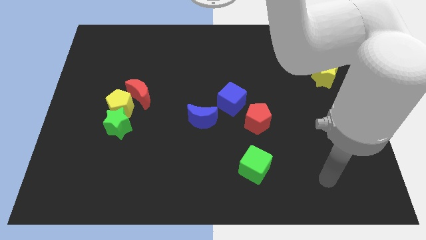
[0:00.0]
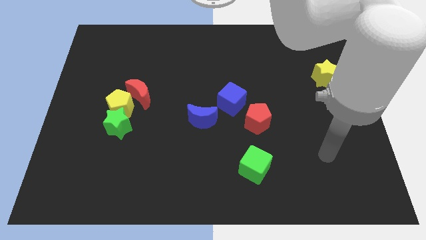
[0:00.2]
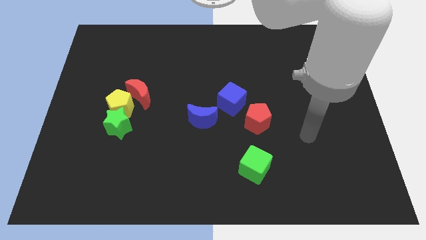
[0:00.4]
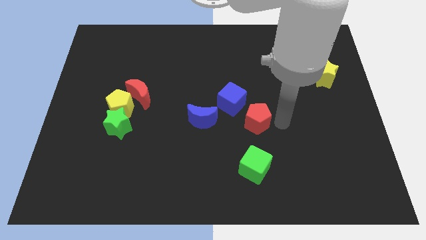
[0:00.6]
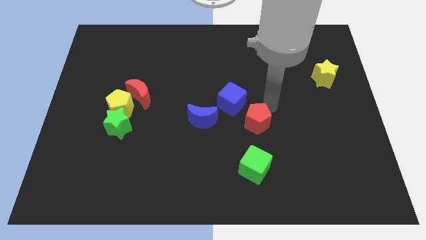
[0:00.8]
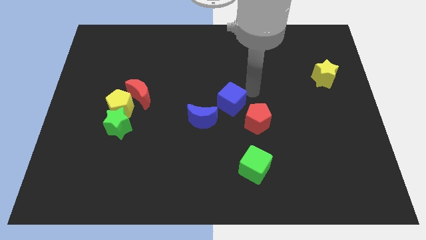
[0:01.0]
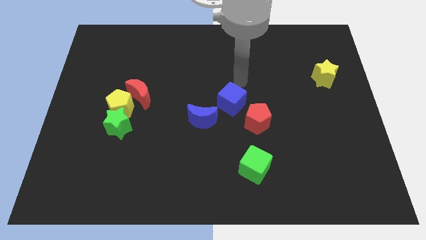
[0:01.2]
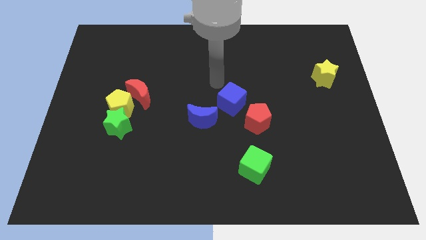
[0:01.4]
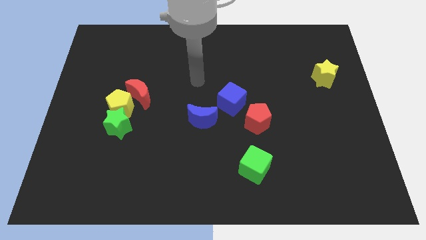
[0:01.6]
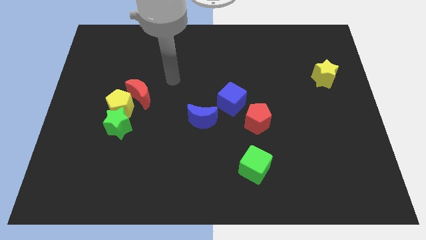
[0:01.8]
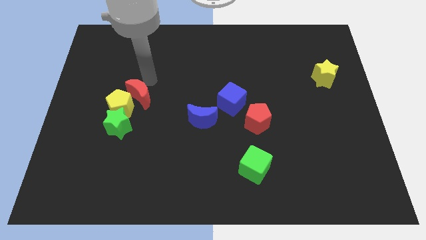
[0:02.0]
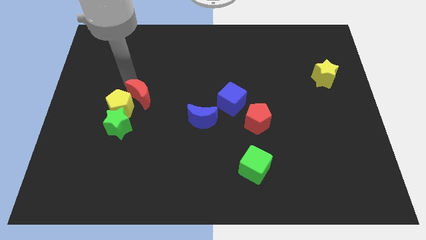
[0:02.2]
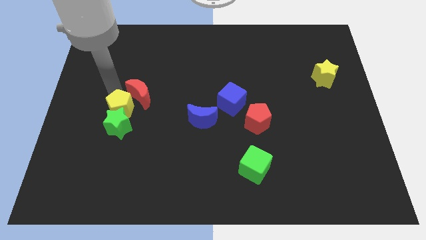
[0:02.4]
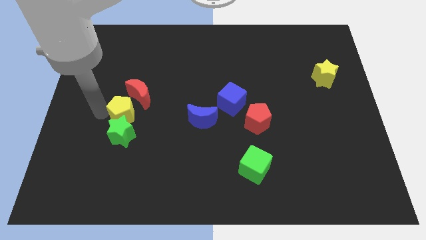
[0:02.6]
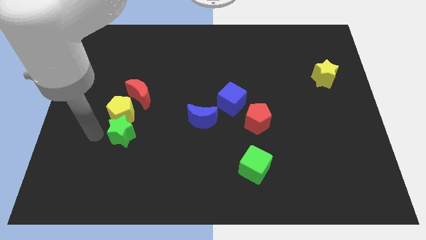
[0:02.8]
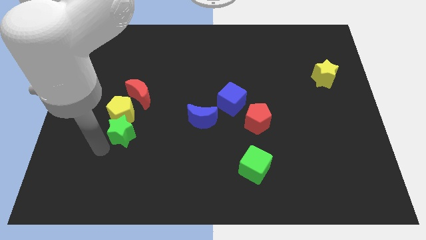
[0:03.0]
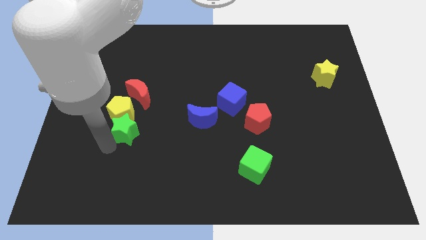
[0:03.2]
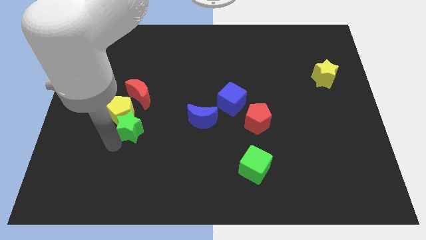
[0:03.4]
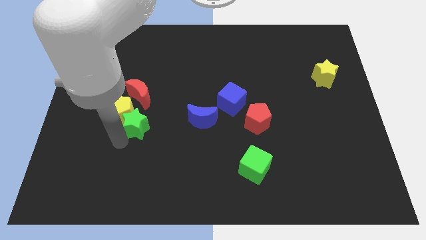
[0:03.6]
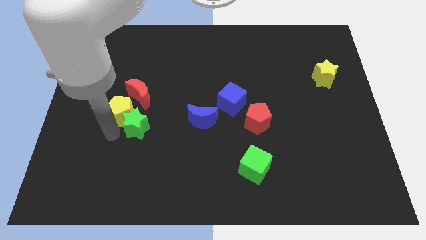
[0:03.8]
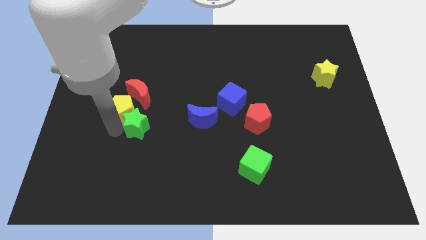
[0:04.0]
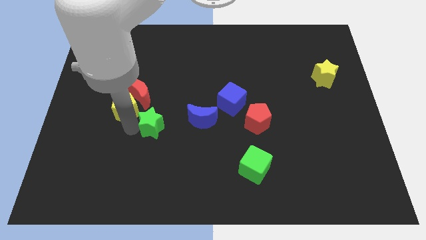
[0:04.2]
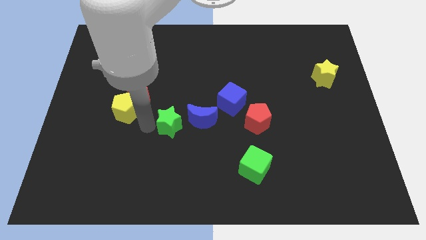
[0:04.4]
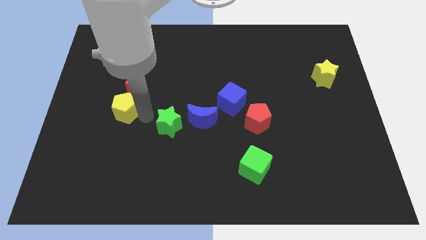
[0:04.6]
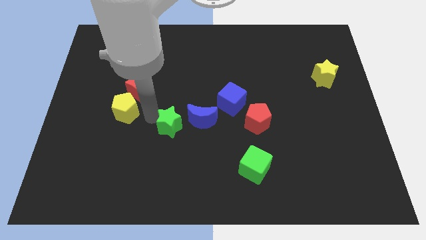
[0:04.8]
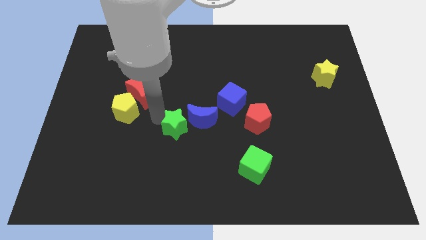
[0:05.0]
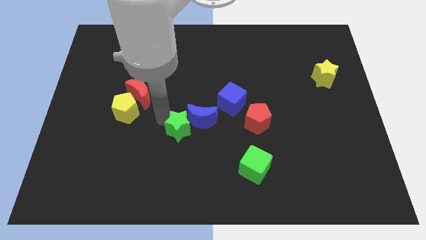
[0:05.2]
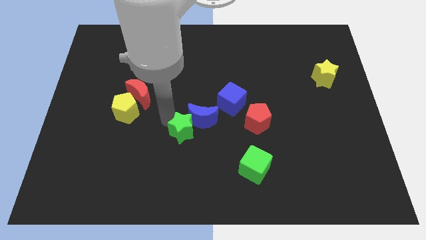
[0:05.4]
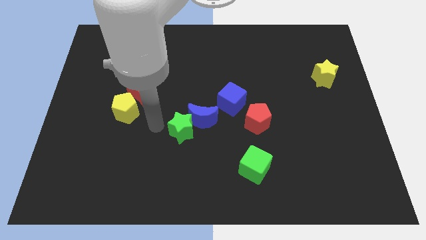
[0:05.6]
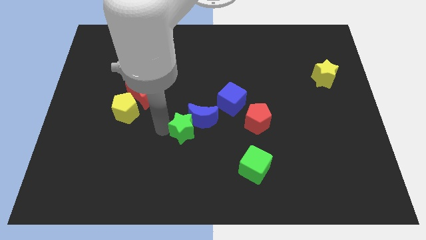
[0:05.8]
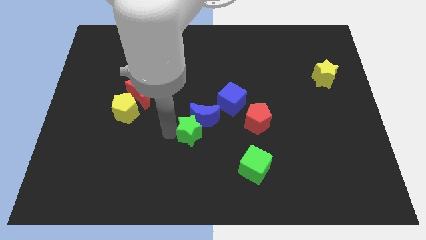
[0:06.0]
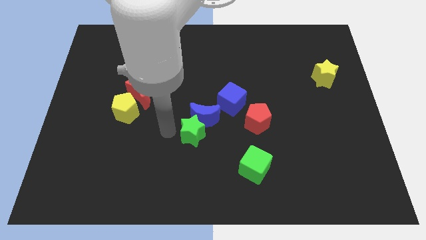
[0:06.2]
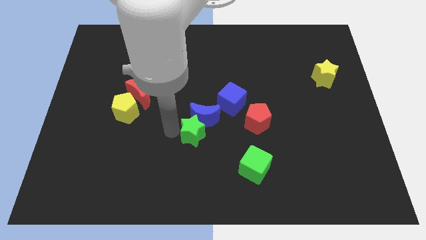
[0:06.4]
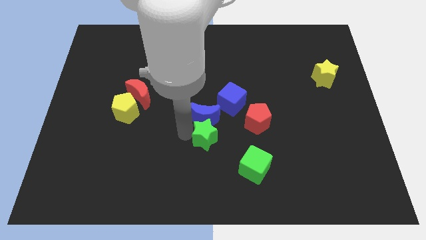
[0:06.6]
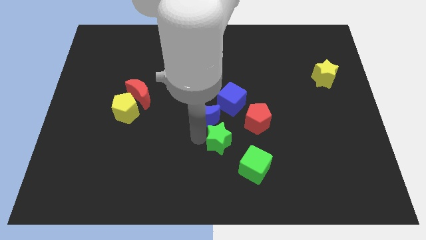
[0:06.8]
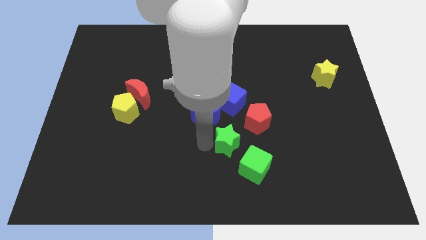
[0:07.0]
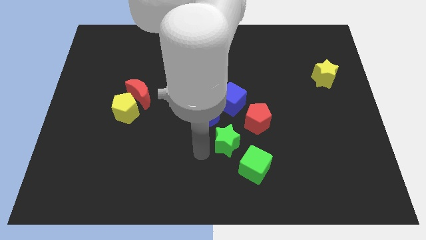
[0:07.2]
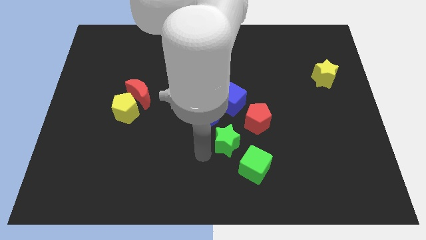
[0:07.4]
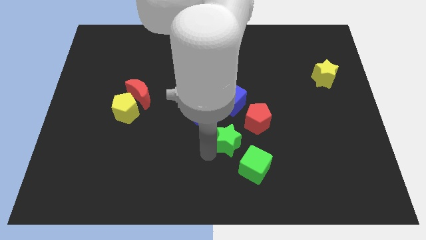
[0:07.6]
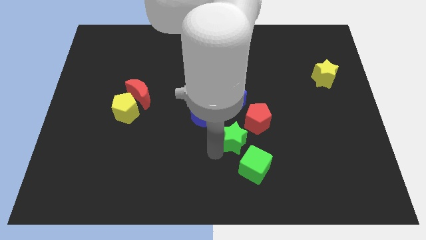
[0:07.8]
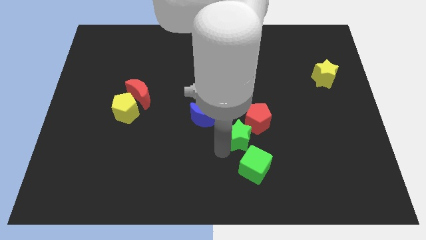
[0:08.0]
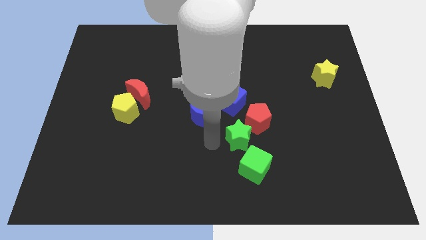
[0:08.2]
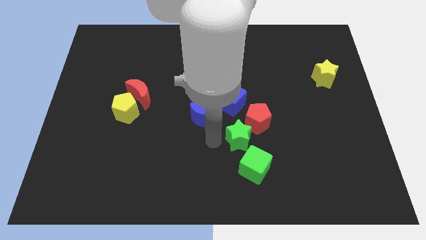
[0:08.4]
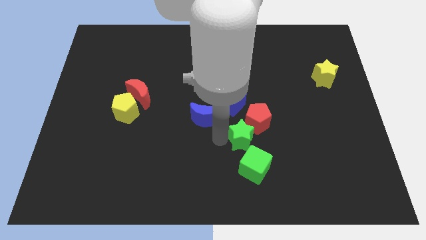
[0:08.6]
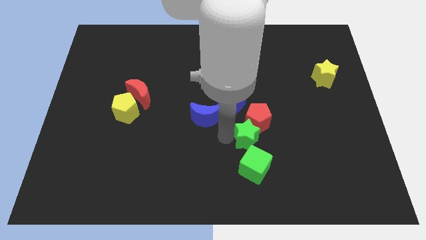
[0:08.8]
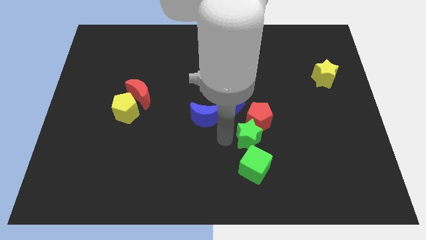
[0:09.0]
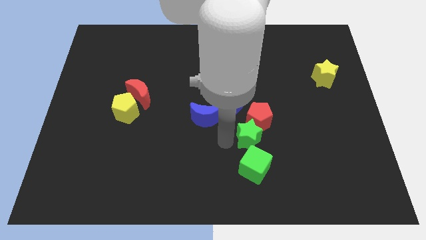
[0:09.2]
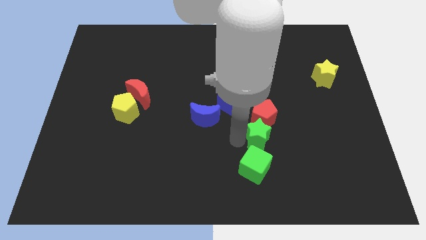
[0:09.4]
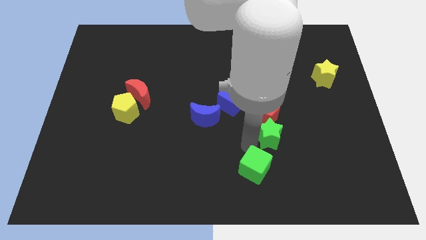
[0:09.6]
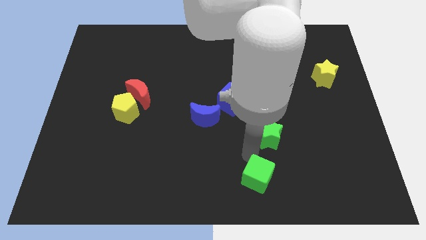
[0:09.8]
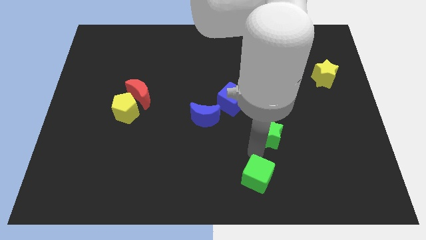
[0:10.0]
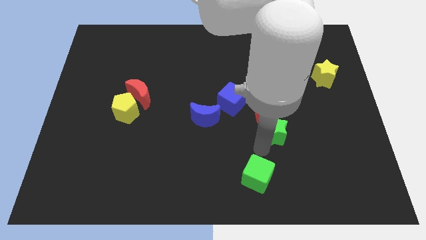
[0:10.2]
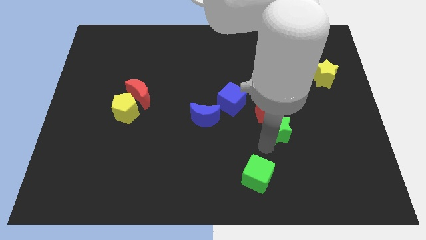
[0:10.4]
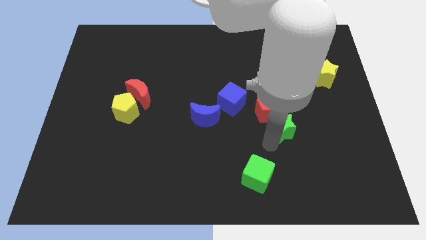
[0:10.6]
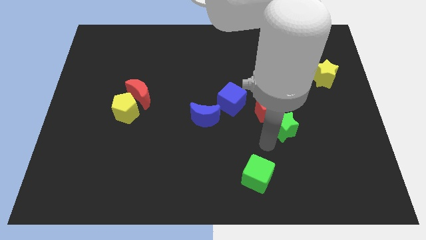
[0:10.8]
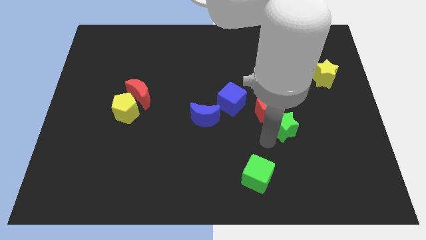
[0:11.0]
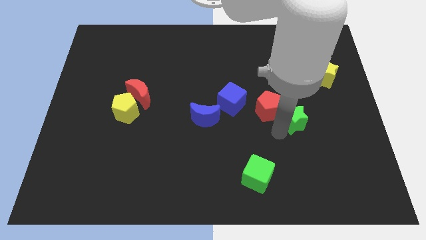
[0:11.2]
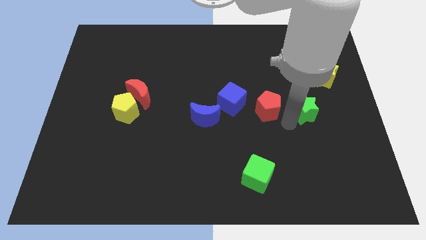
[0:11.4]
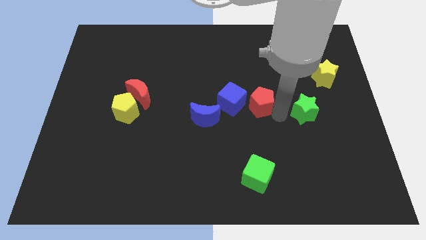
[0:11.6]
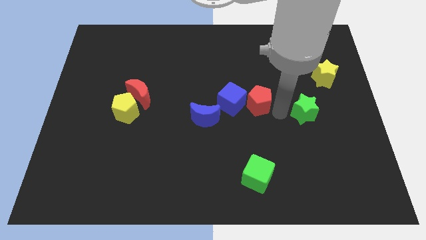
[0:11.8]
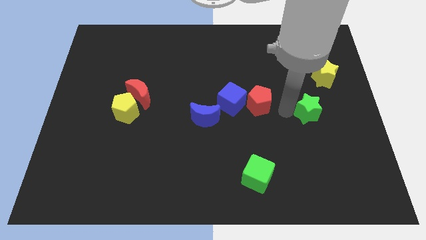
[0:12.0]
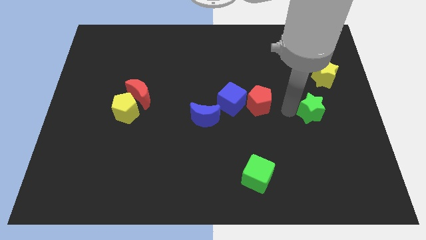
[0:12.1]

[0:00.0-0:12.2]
slide the green star to the bottom side of the yellow star

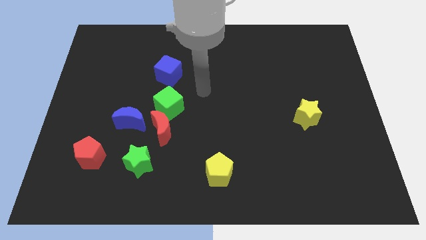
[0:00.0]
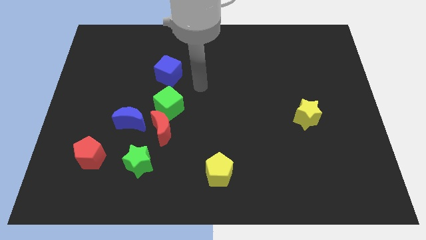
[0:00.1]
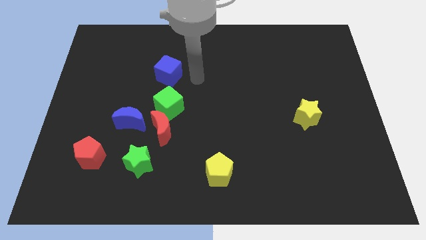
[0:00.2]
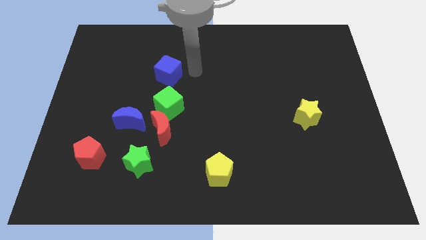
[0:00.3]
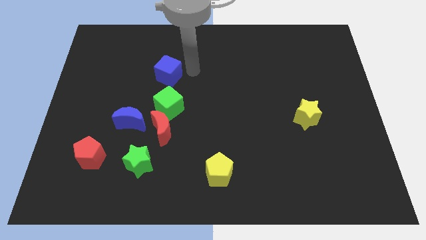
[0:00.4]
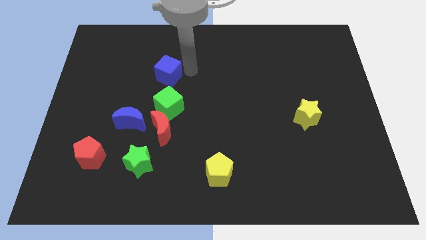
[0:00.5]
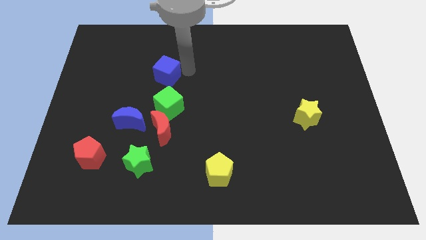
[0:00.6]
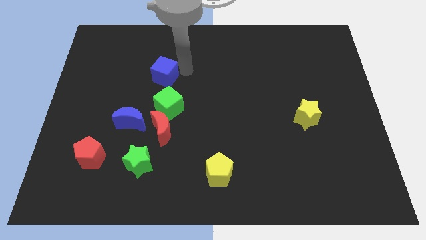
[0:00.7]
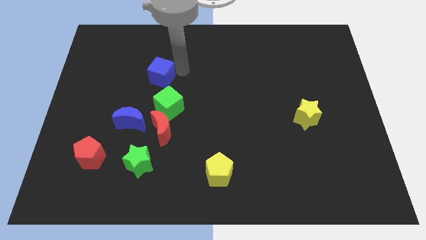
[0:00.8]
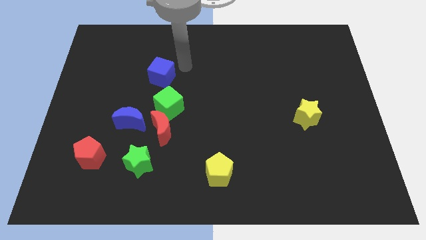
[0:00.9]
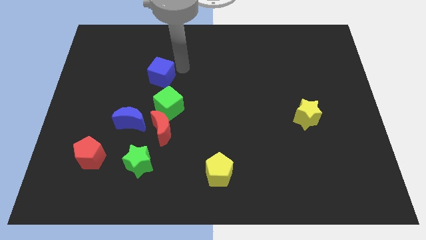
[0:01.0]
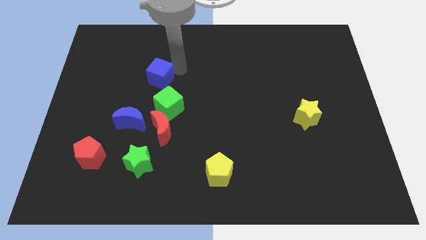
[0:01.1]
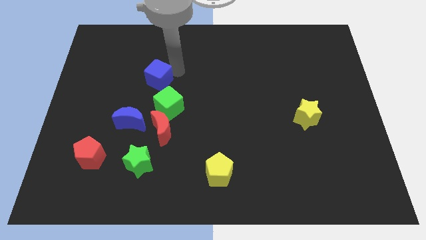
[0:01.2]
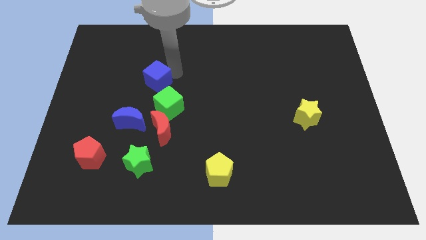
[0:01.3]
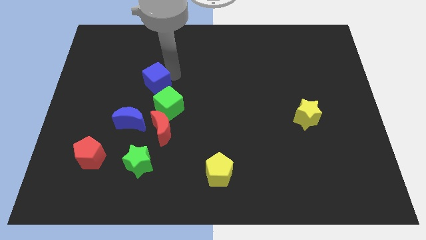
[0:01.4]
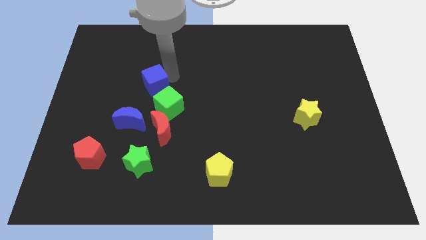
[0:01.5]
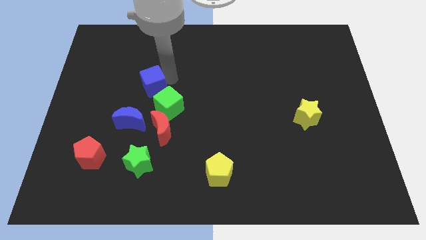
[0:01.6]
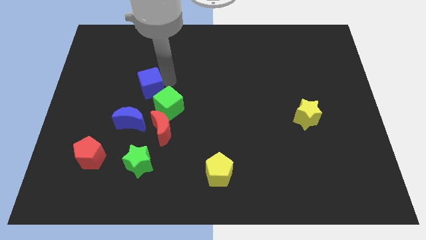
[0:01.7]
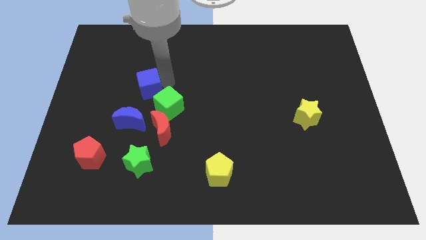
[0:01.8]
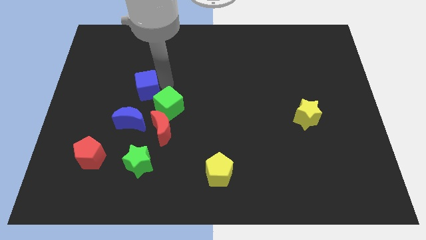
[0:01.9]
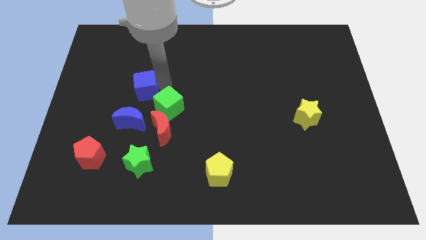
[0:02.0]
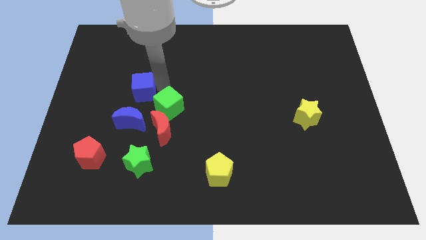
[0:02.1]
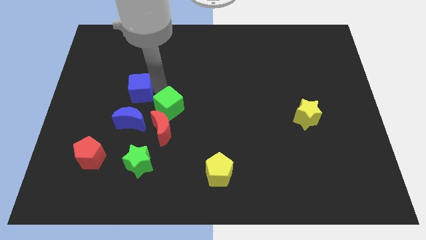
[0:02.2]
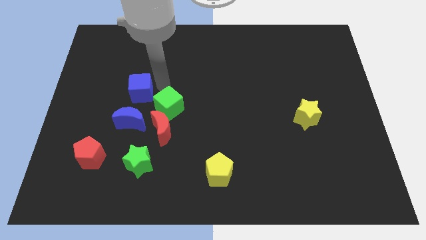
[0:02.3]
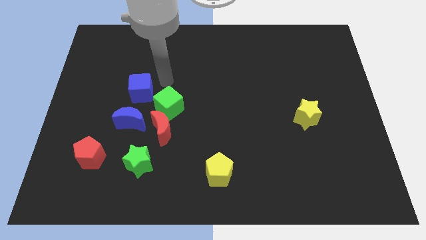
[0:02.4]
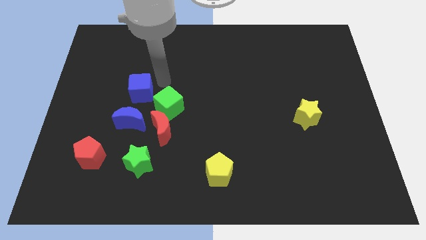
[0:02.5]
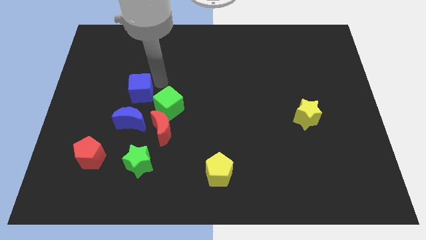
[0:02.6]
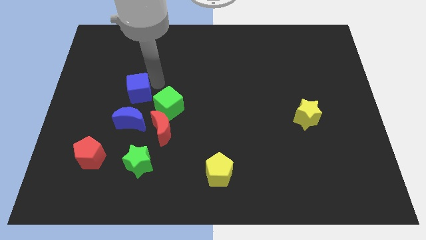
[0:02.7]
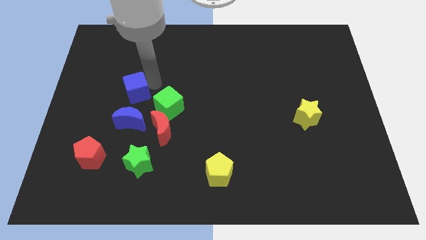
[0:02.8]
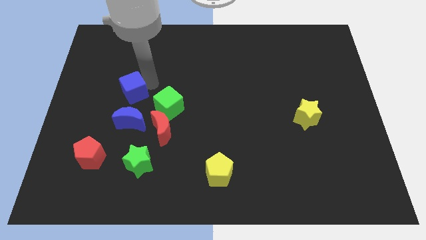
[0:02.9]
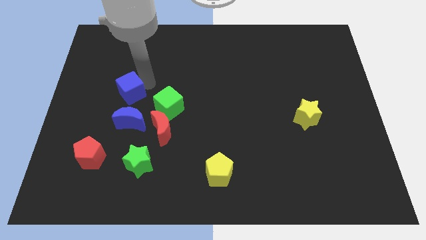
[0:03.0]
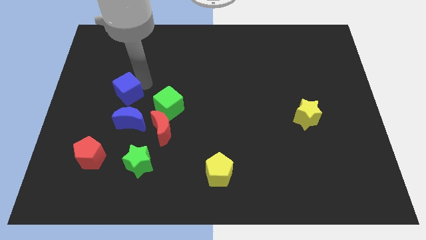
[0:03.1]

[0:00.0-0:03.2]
move the blue cube diagonally up and to the left of the blue moon
